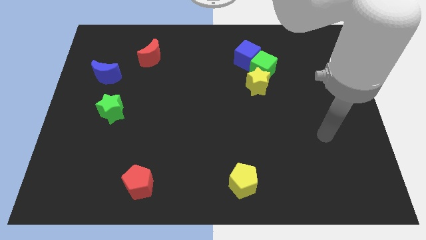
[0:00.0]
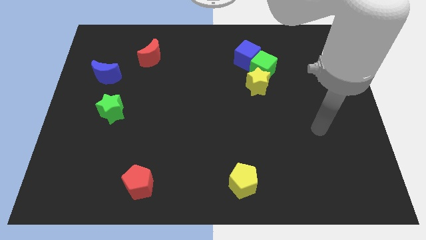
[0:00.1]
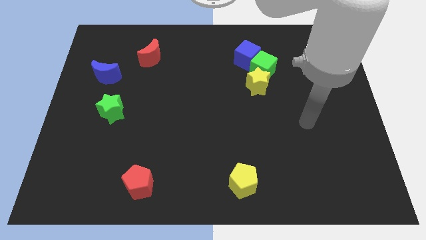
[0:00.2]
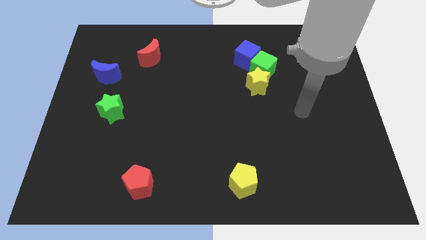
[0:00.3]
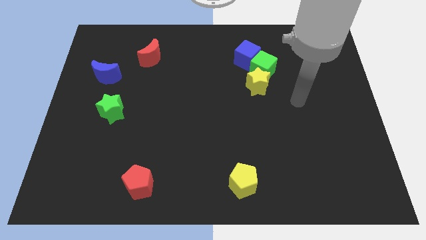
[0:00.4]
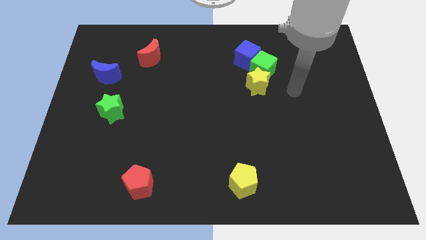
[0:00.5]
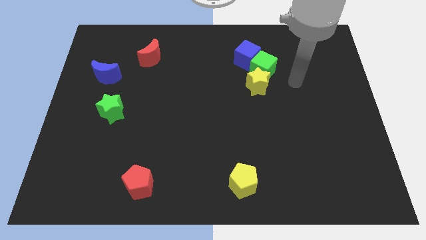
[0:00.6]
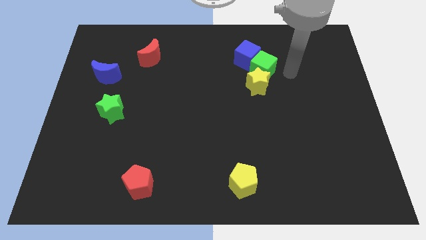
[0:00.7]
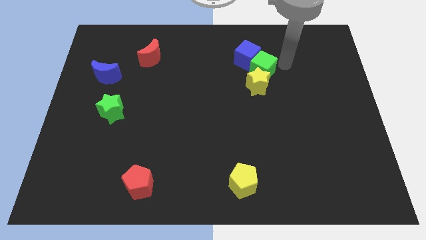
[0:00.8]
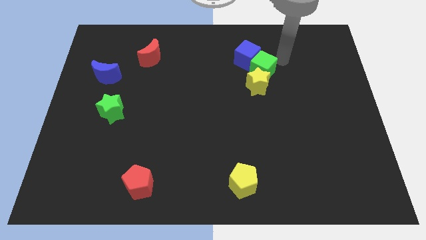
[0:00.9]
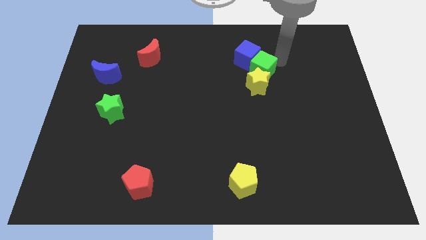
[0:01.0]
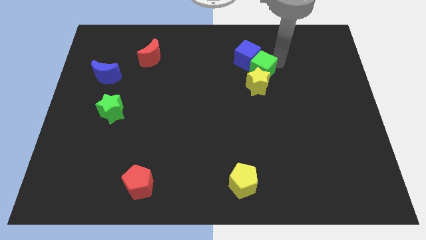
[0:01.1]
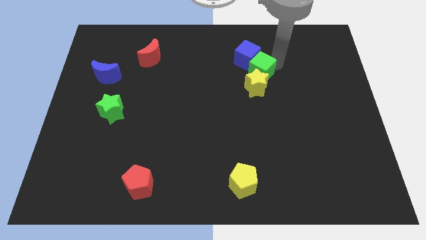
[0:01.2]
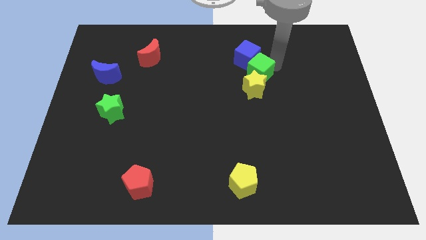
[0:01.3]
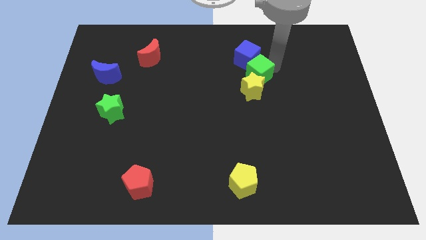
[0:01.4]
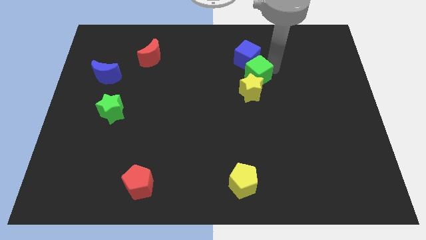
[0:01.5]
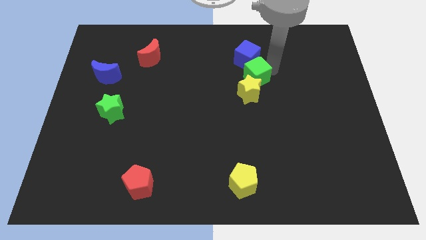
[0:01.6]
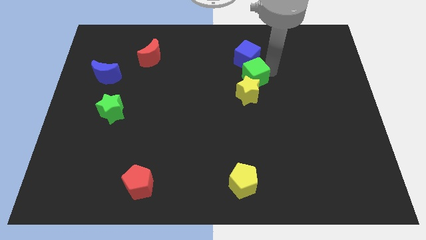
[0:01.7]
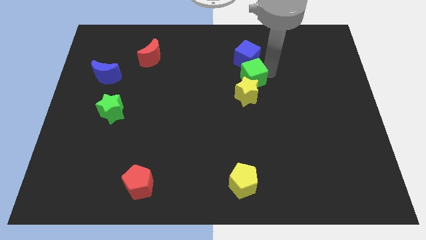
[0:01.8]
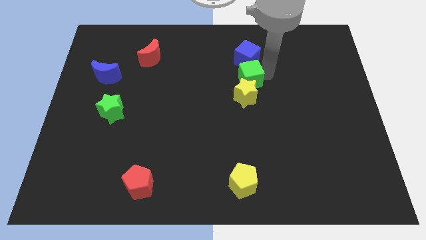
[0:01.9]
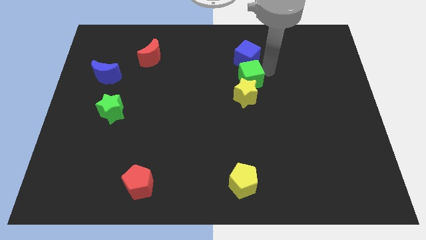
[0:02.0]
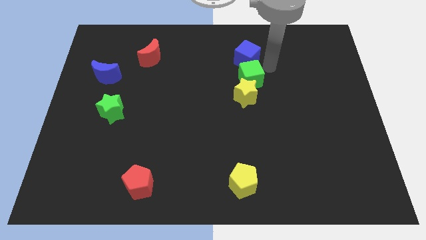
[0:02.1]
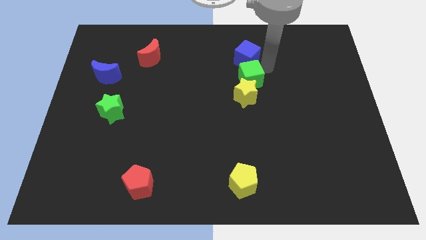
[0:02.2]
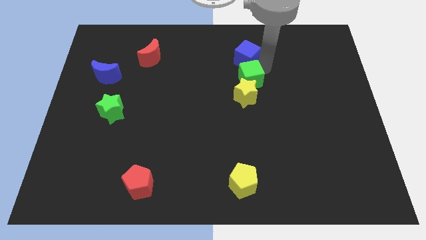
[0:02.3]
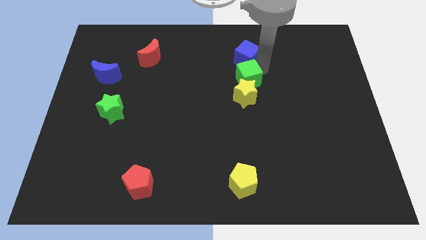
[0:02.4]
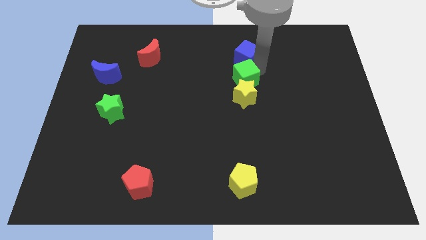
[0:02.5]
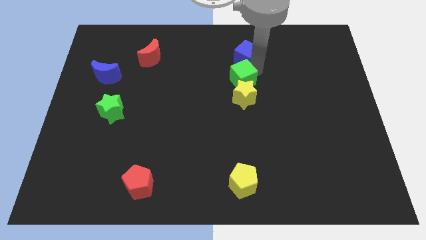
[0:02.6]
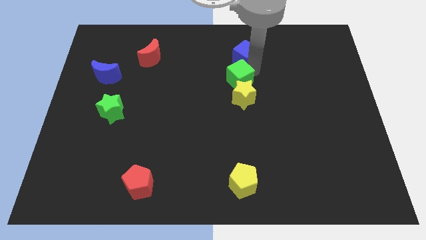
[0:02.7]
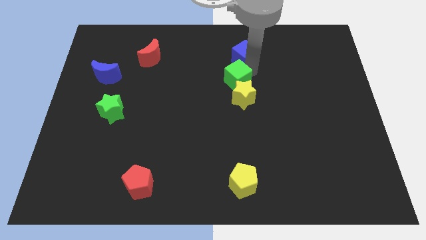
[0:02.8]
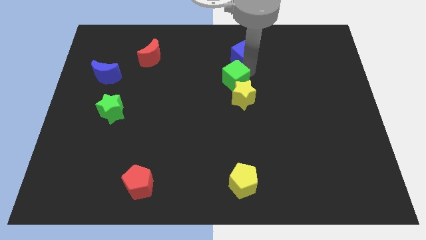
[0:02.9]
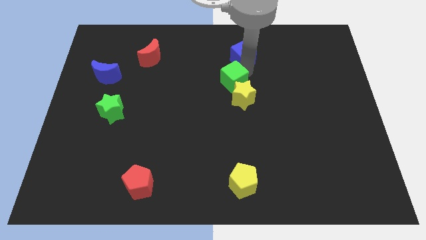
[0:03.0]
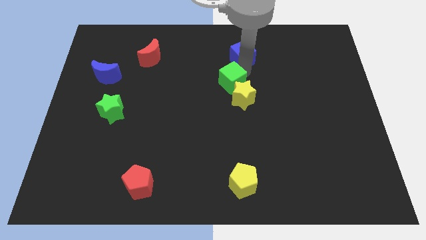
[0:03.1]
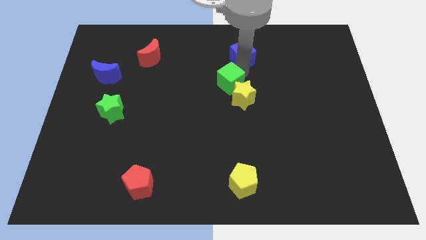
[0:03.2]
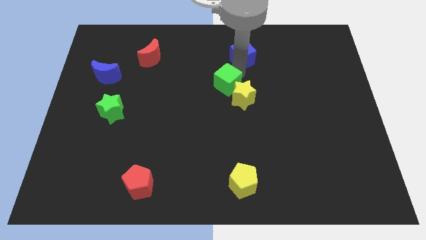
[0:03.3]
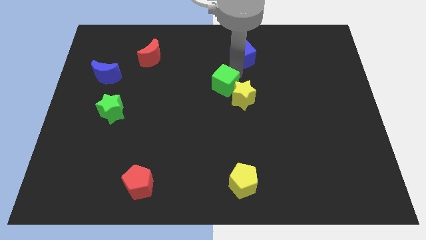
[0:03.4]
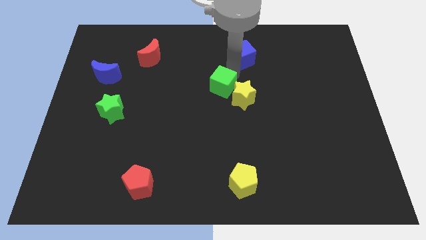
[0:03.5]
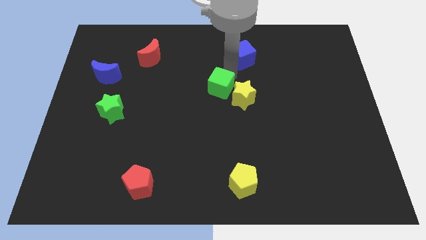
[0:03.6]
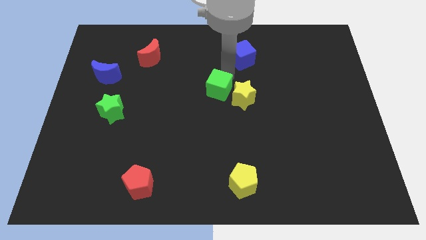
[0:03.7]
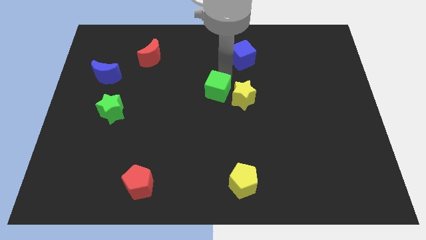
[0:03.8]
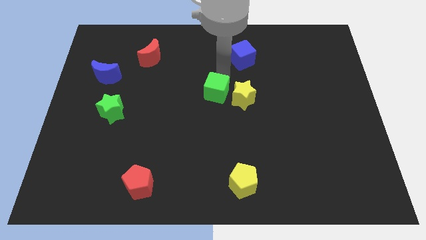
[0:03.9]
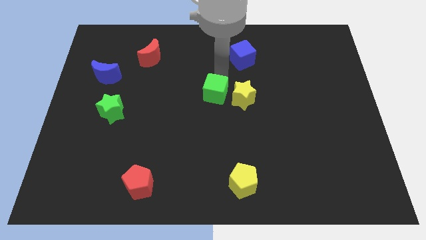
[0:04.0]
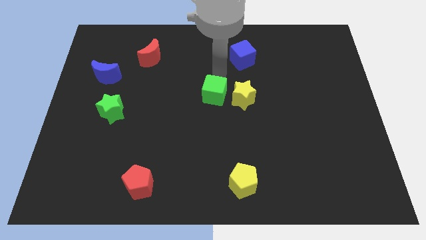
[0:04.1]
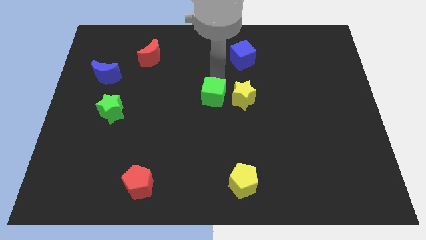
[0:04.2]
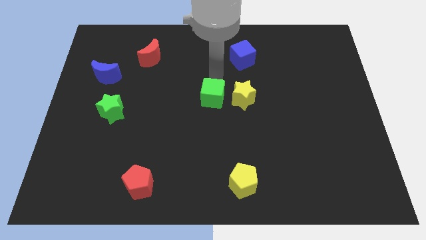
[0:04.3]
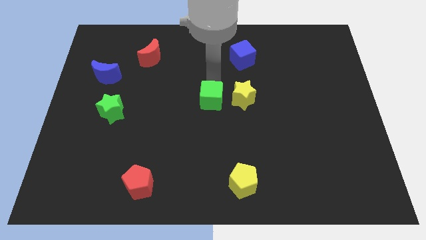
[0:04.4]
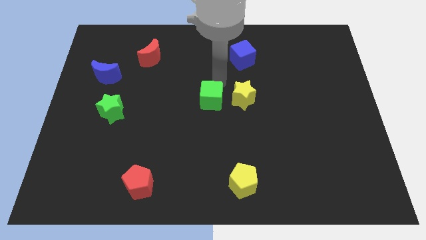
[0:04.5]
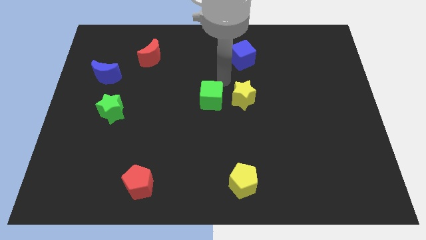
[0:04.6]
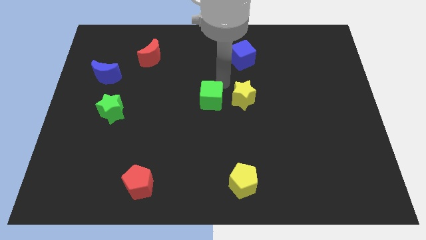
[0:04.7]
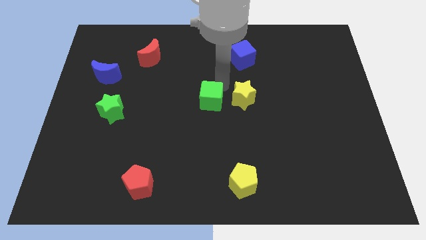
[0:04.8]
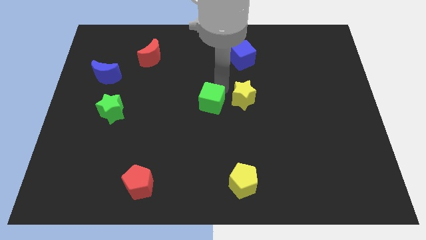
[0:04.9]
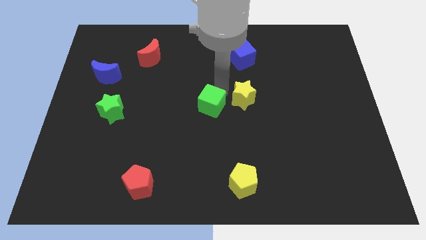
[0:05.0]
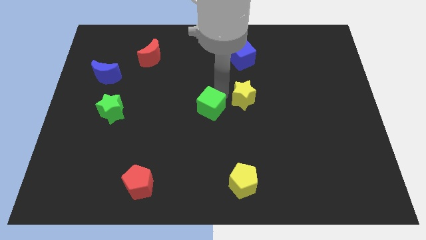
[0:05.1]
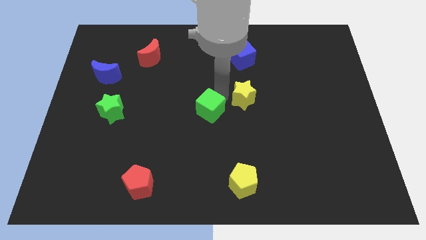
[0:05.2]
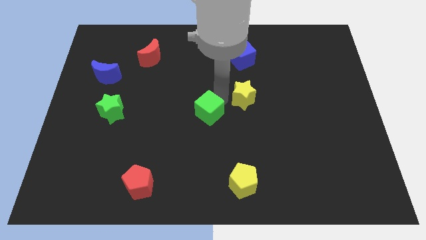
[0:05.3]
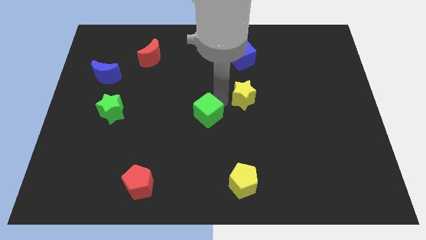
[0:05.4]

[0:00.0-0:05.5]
slide the green cube downwards and then left

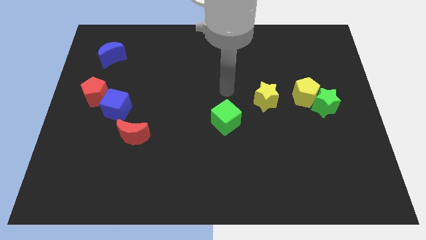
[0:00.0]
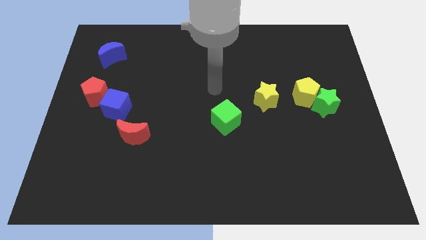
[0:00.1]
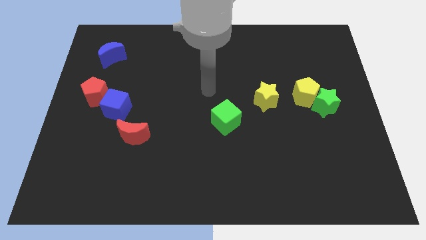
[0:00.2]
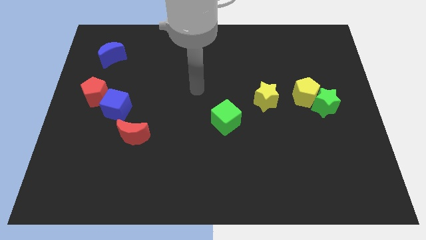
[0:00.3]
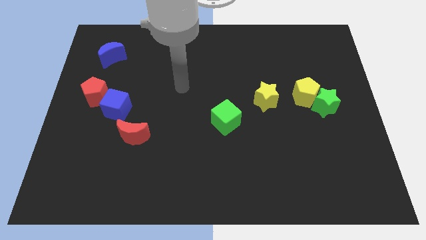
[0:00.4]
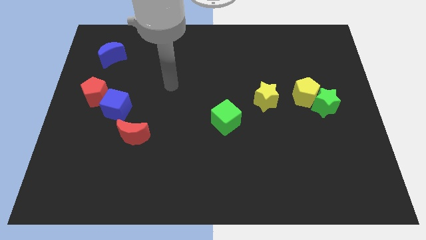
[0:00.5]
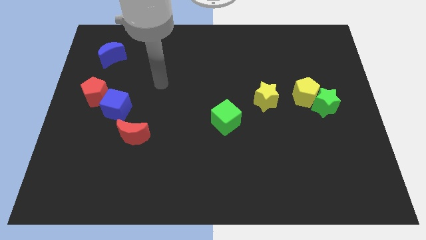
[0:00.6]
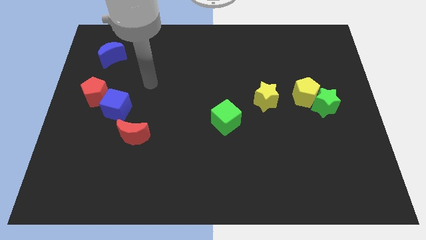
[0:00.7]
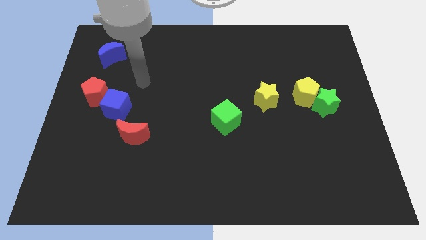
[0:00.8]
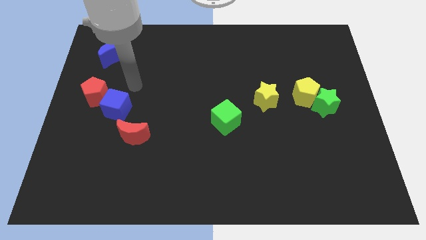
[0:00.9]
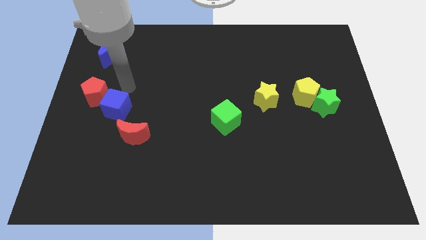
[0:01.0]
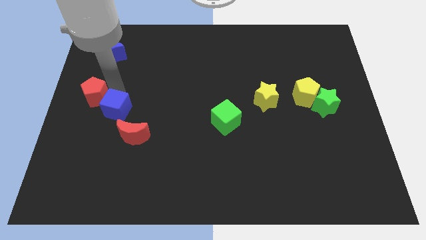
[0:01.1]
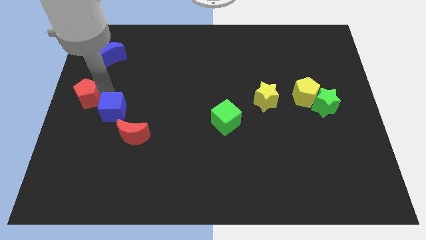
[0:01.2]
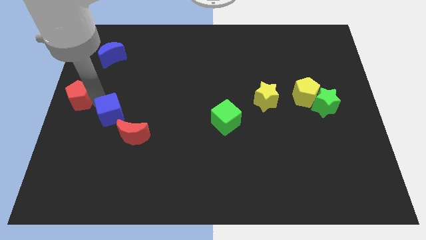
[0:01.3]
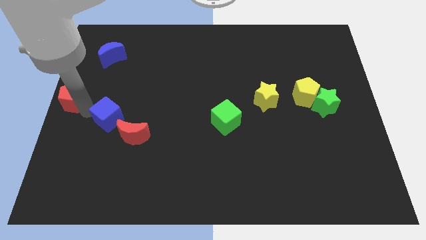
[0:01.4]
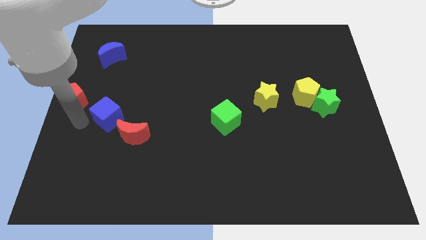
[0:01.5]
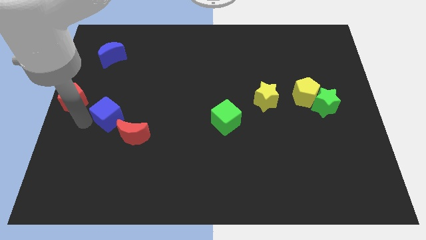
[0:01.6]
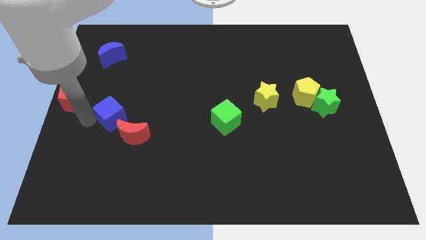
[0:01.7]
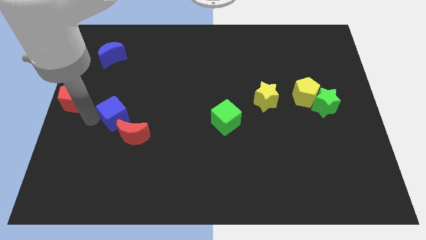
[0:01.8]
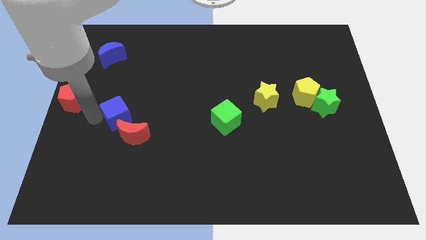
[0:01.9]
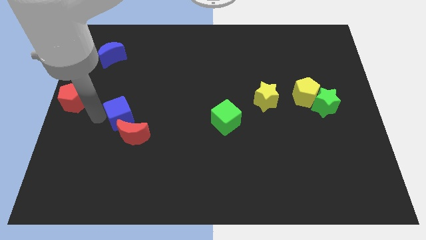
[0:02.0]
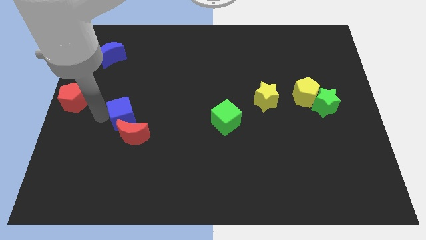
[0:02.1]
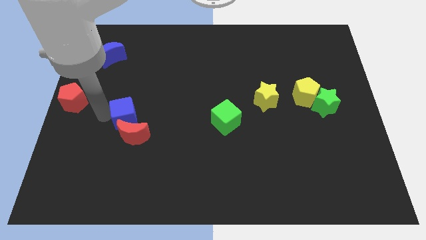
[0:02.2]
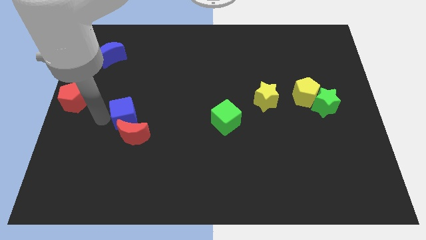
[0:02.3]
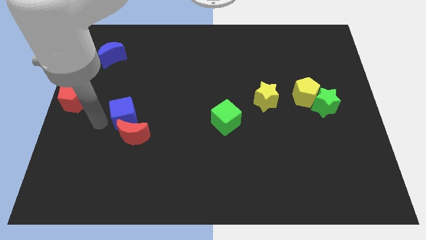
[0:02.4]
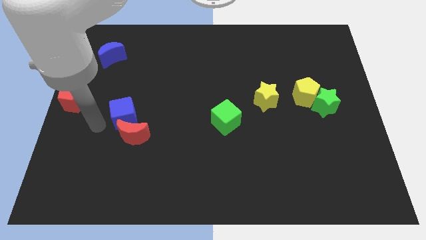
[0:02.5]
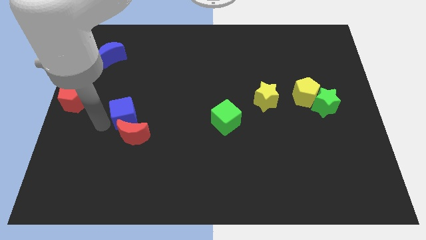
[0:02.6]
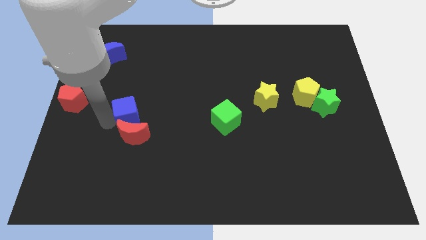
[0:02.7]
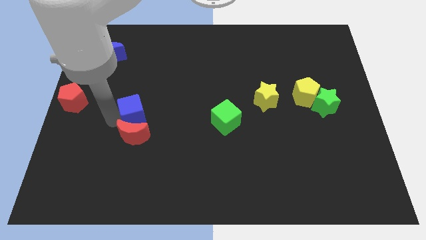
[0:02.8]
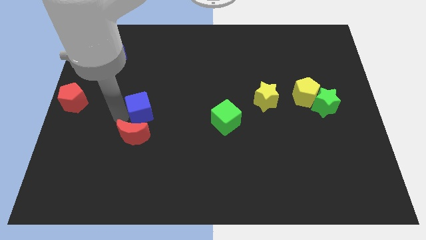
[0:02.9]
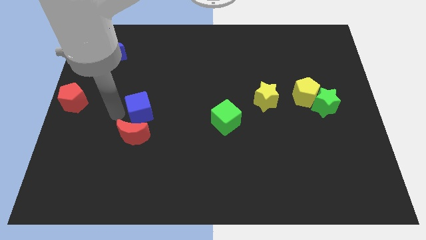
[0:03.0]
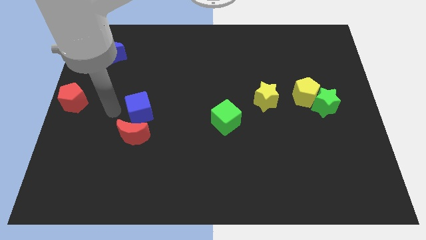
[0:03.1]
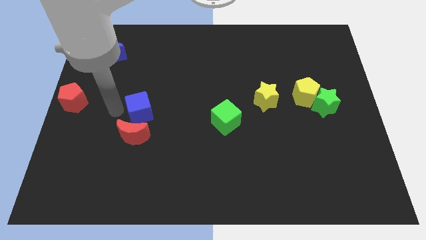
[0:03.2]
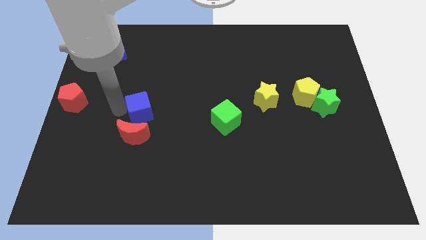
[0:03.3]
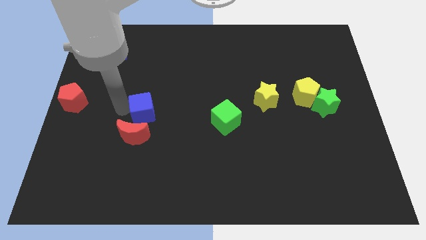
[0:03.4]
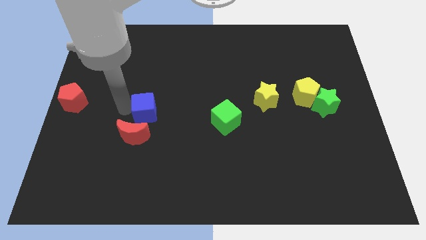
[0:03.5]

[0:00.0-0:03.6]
slightly slide the blue cube to the right
